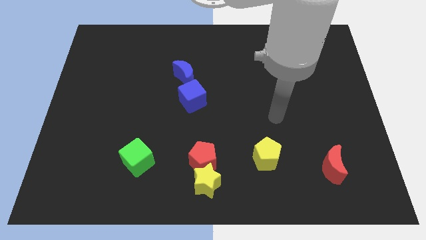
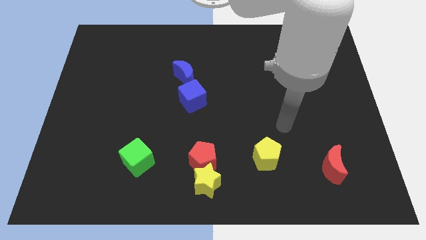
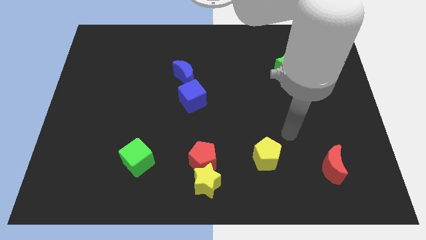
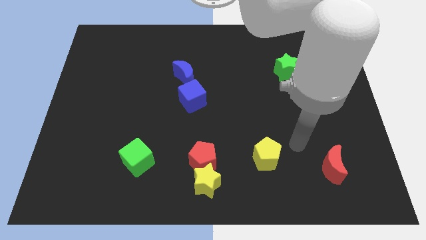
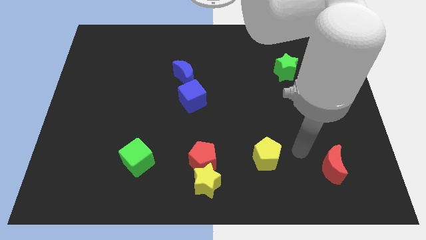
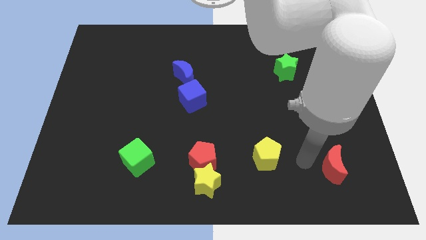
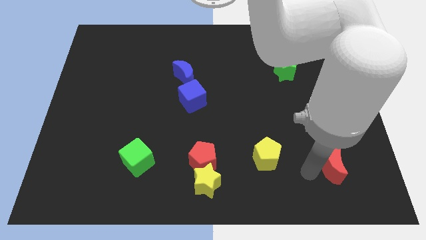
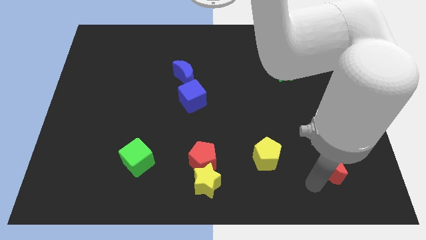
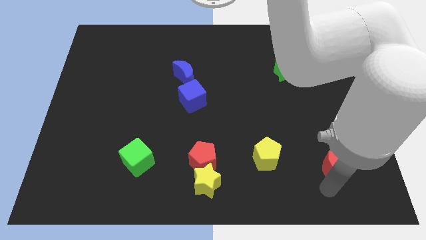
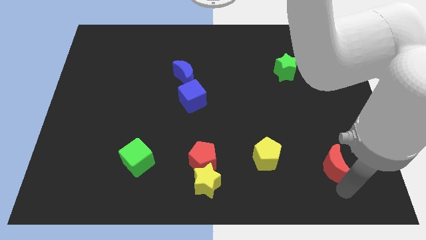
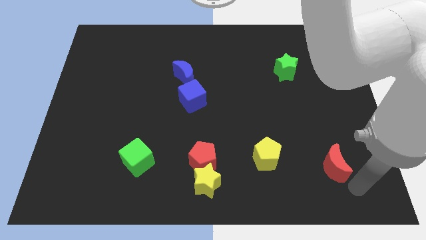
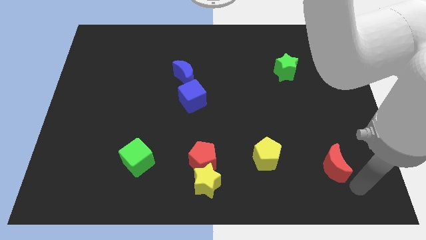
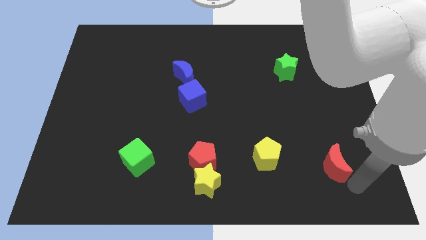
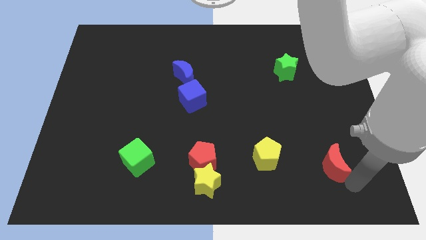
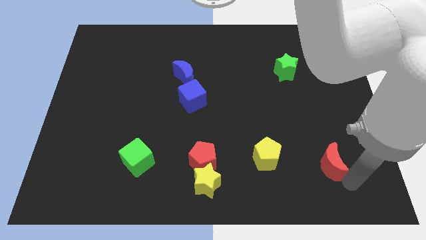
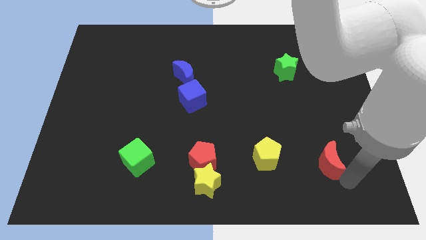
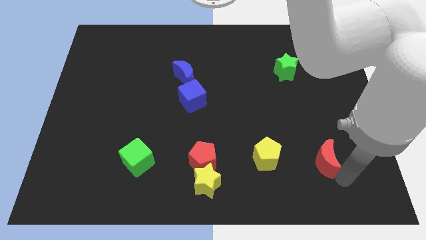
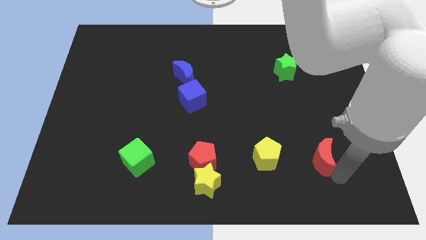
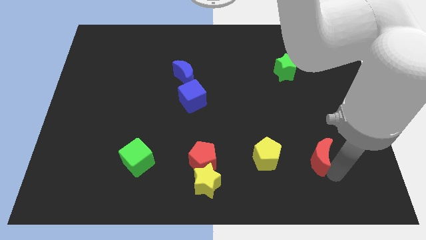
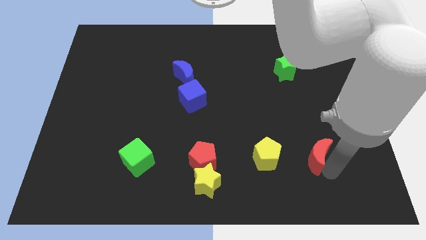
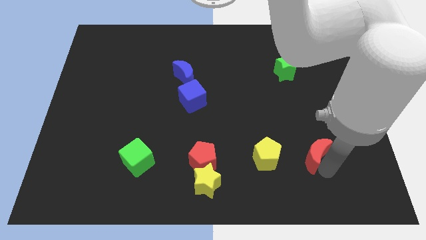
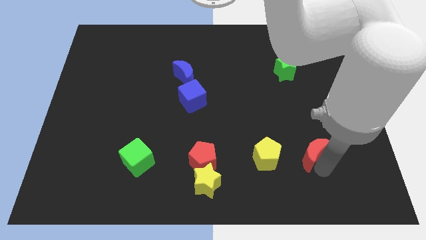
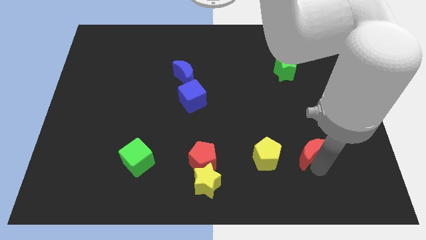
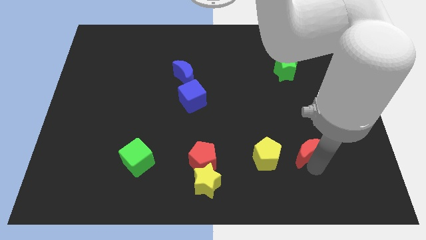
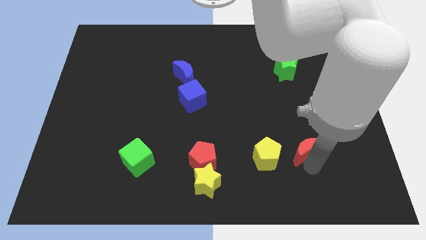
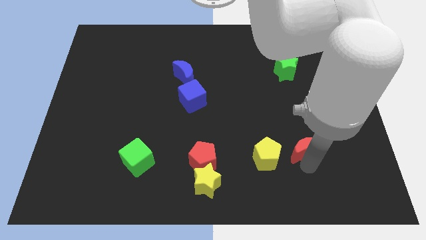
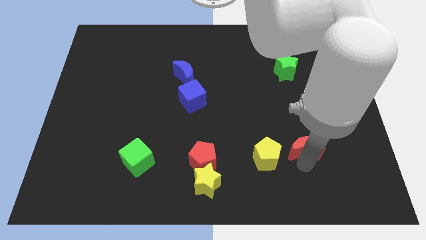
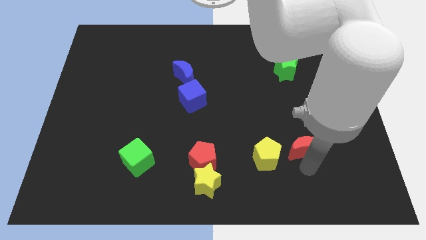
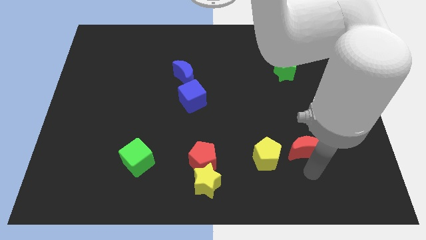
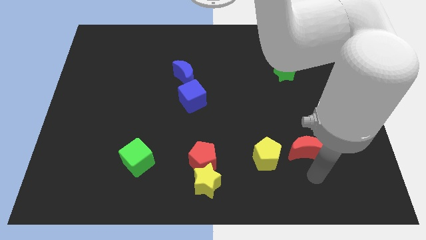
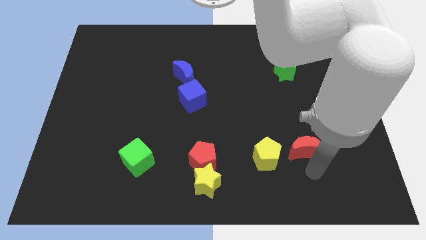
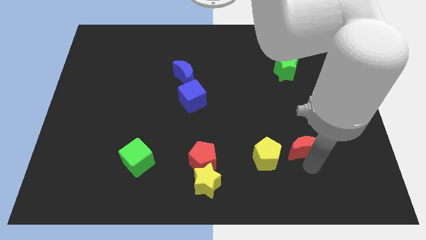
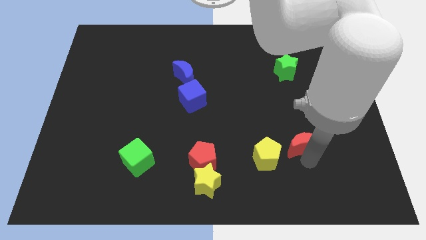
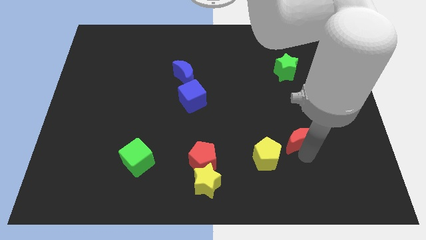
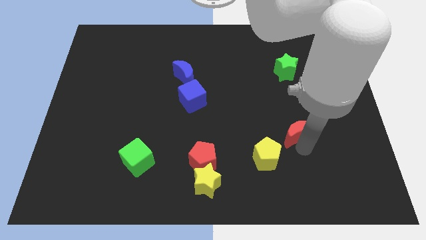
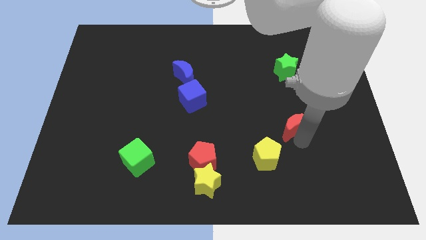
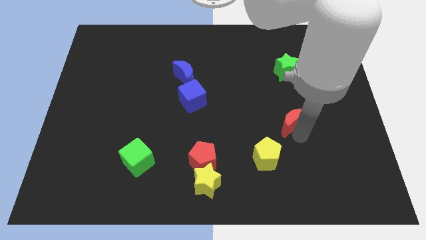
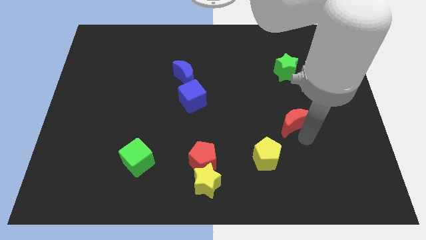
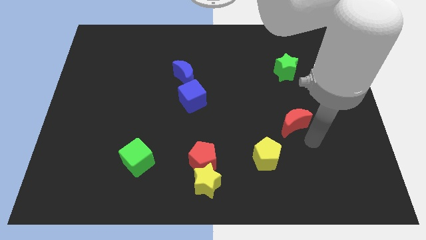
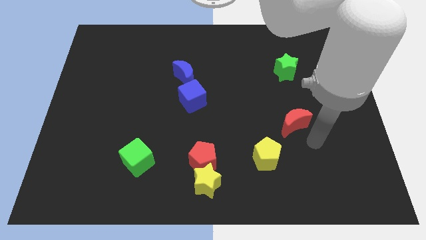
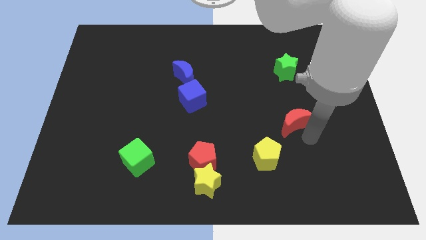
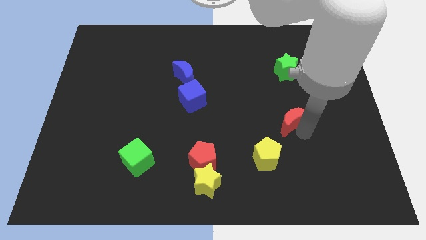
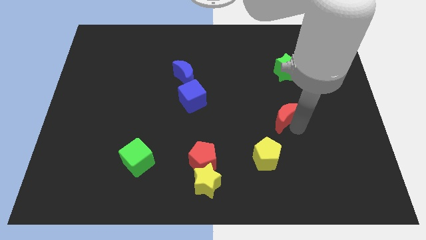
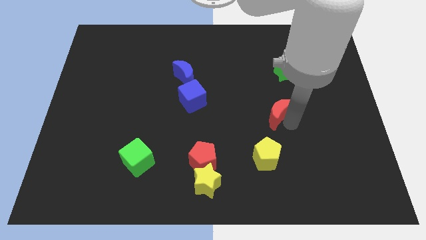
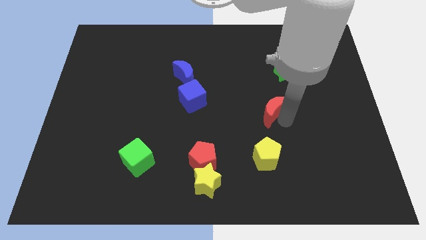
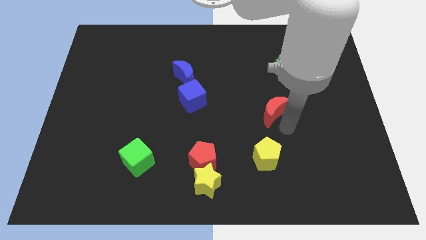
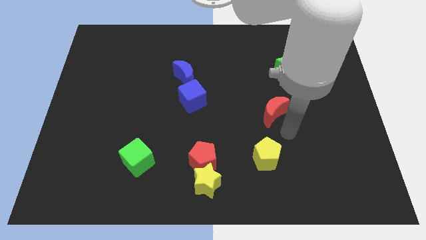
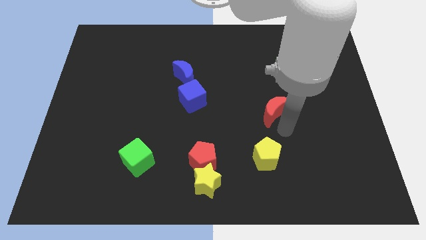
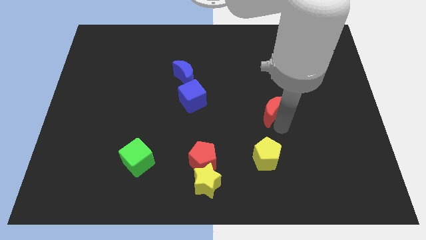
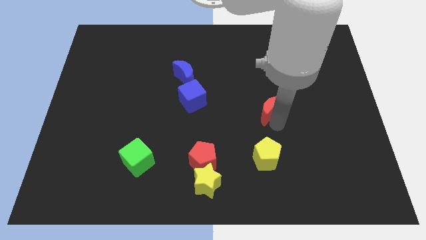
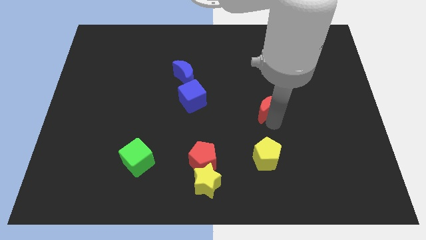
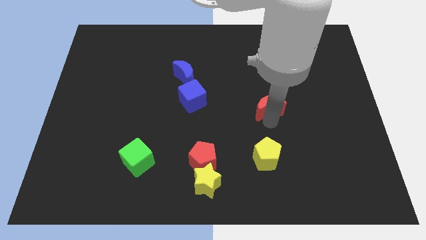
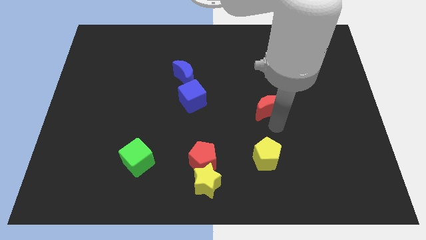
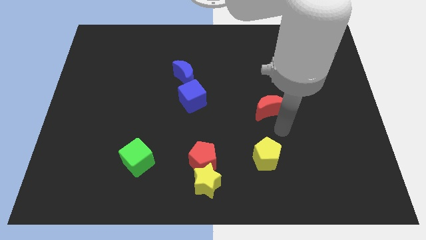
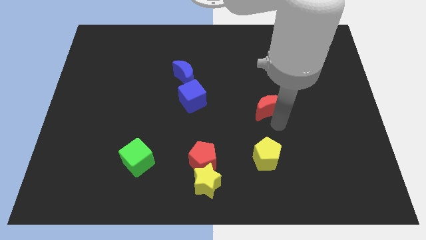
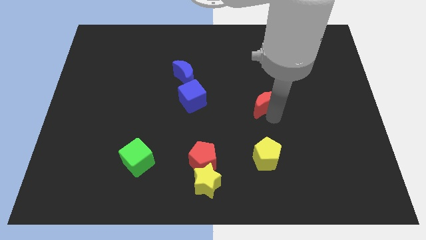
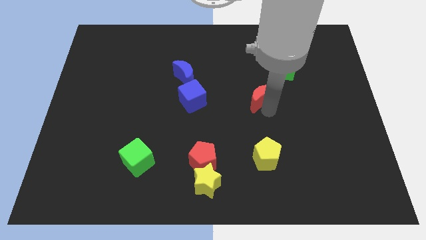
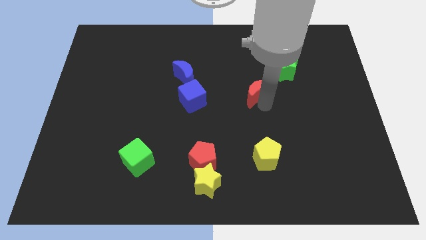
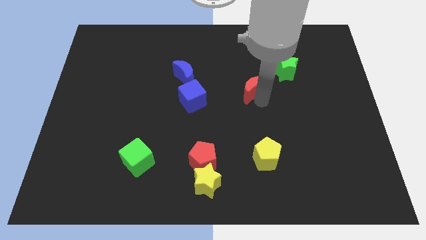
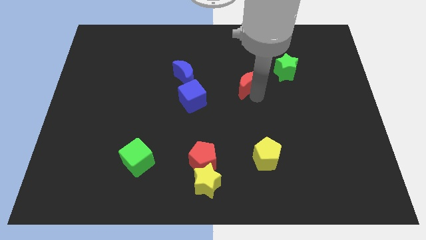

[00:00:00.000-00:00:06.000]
slide the red moon left of the green star
